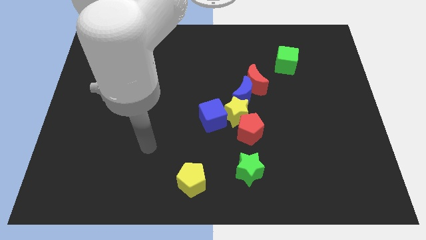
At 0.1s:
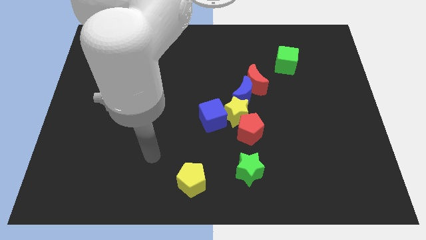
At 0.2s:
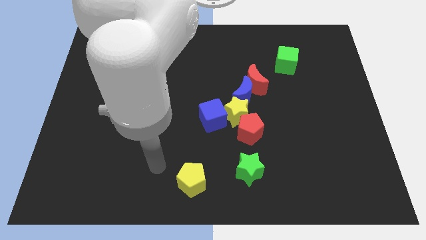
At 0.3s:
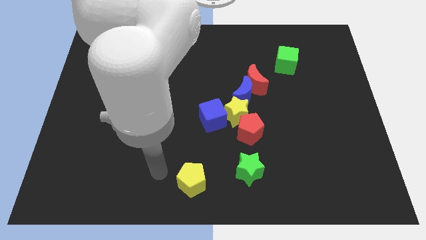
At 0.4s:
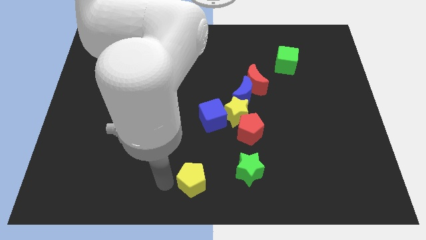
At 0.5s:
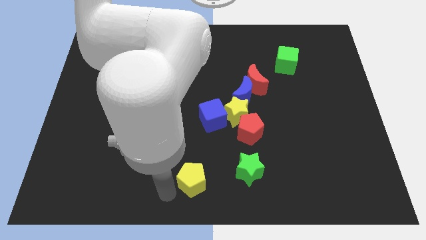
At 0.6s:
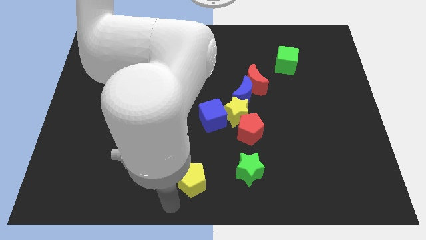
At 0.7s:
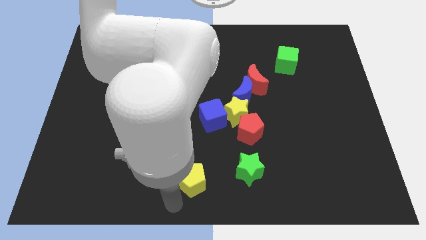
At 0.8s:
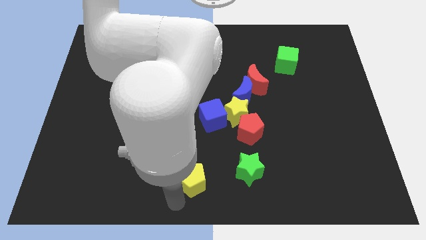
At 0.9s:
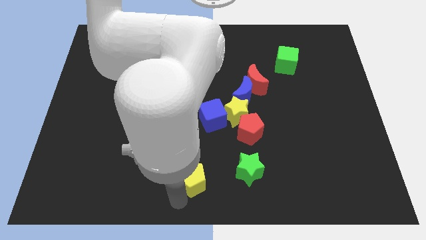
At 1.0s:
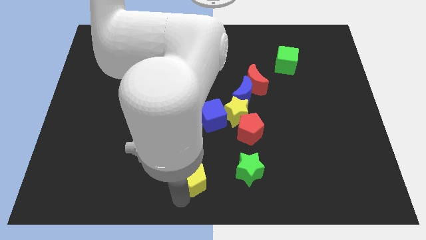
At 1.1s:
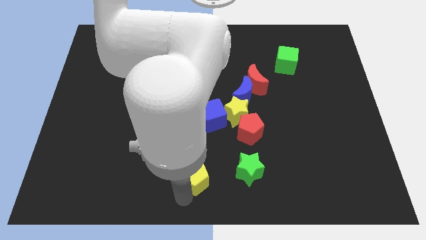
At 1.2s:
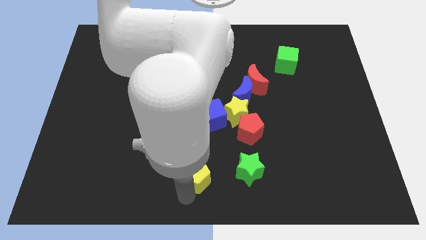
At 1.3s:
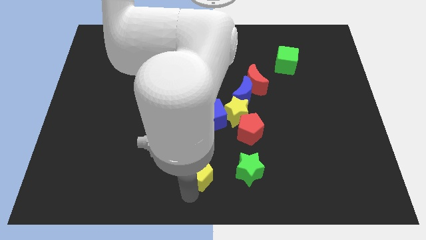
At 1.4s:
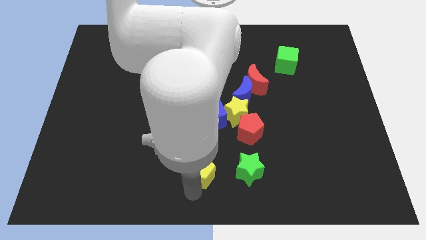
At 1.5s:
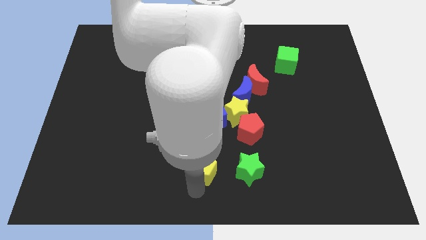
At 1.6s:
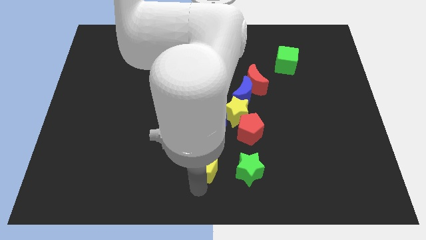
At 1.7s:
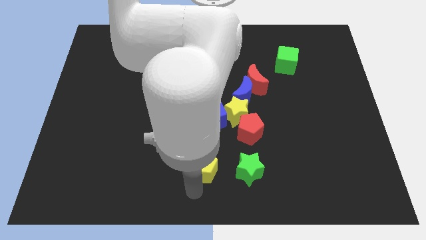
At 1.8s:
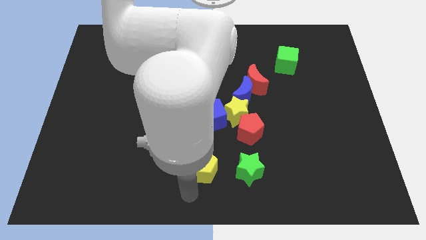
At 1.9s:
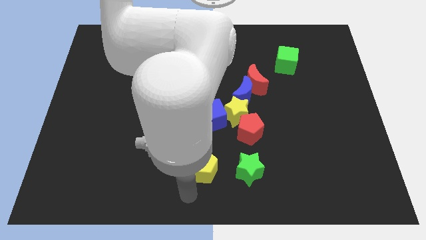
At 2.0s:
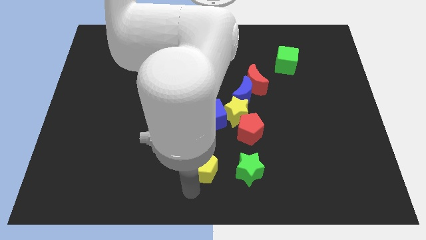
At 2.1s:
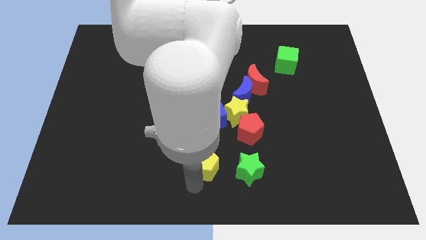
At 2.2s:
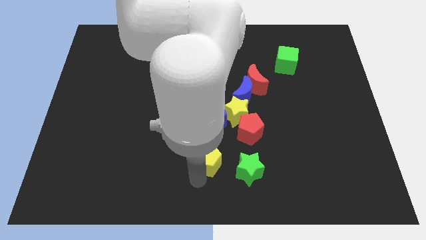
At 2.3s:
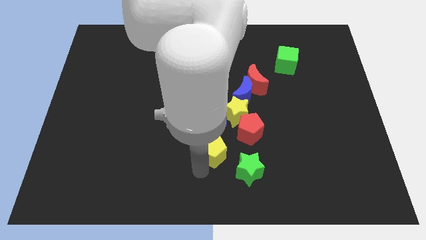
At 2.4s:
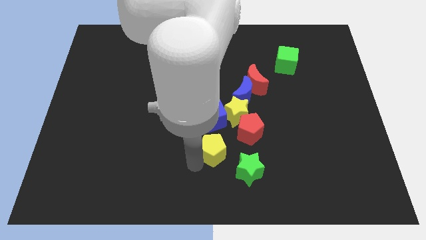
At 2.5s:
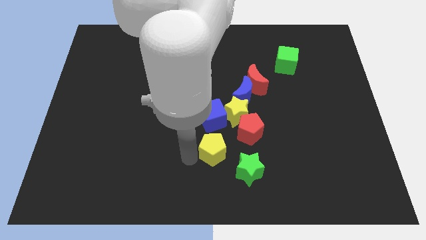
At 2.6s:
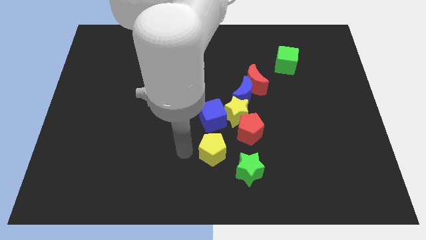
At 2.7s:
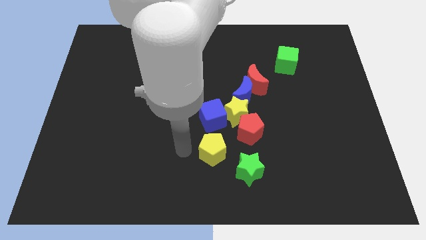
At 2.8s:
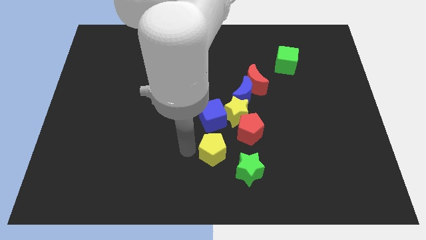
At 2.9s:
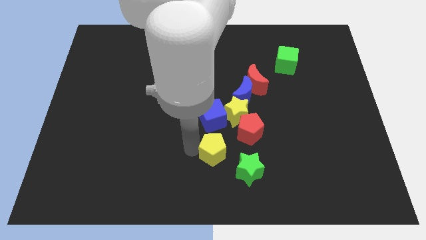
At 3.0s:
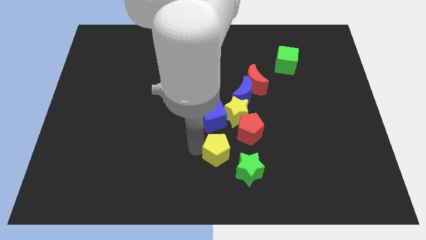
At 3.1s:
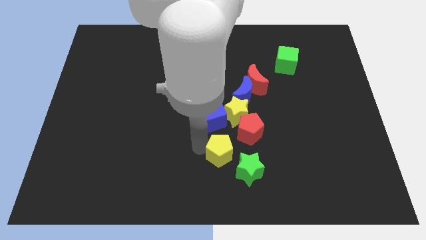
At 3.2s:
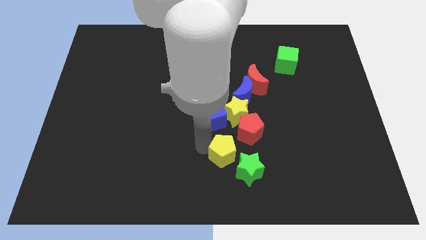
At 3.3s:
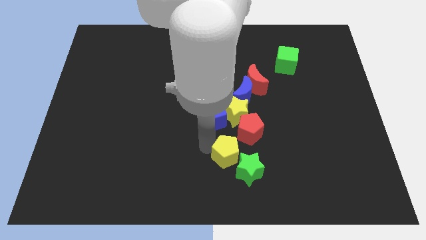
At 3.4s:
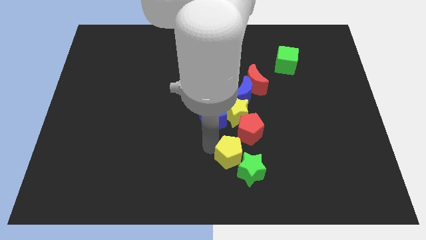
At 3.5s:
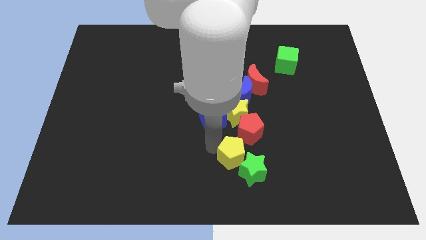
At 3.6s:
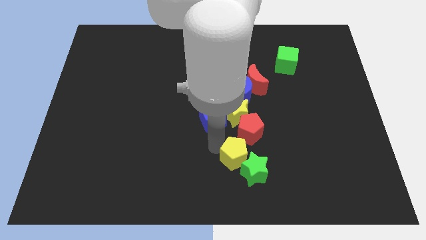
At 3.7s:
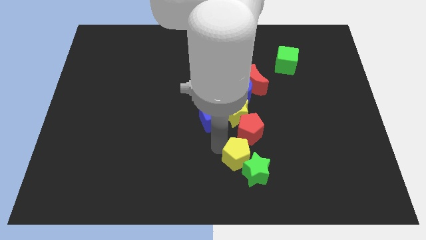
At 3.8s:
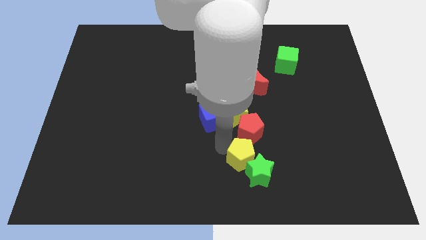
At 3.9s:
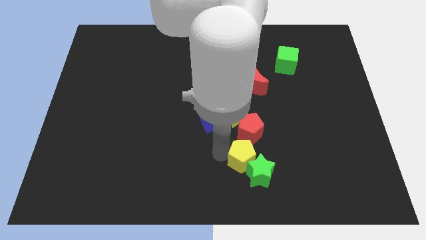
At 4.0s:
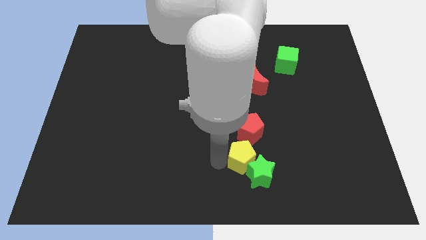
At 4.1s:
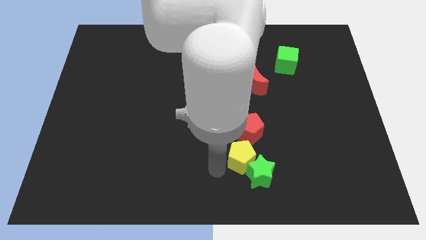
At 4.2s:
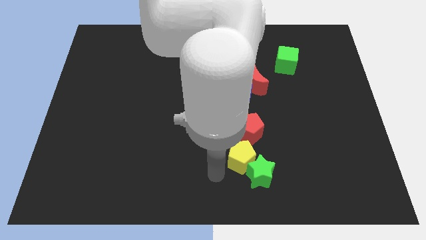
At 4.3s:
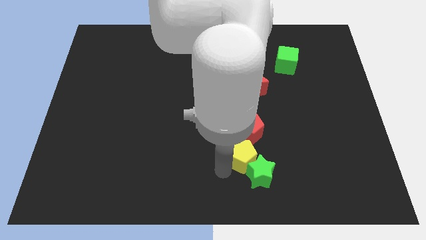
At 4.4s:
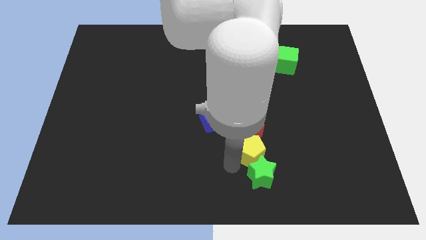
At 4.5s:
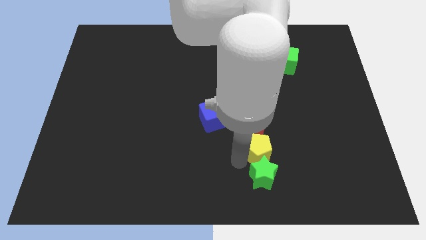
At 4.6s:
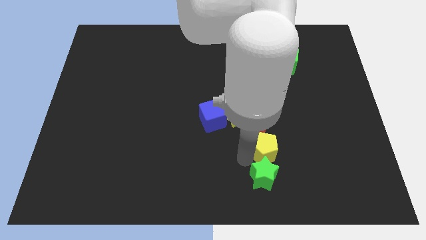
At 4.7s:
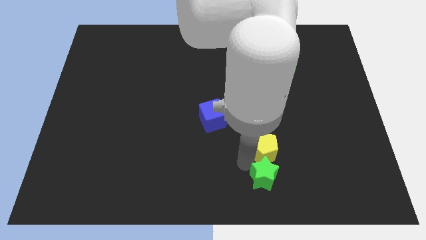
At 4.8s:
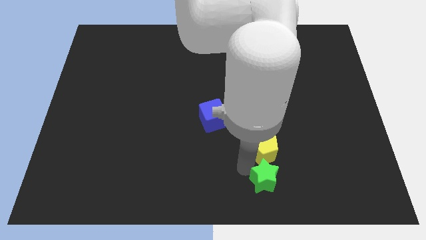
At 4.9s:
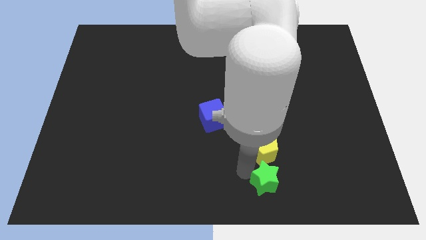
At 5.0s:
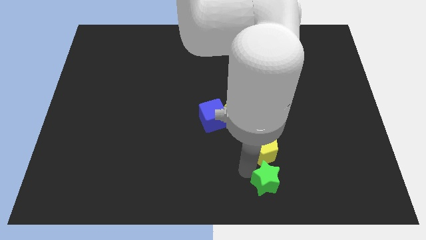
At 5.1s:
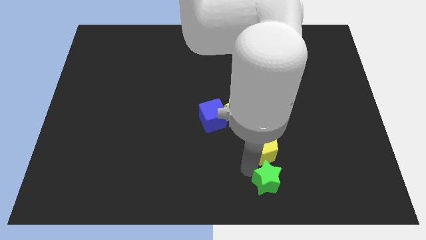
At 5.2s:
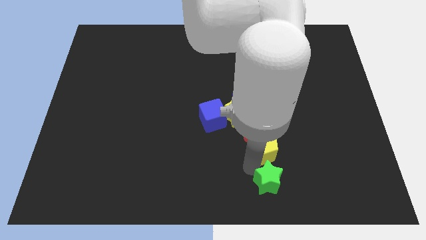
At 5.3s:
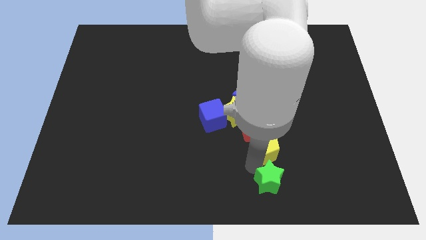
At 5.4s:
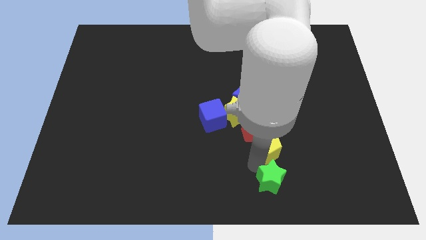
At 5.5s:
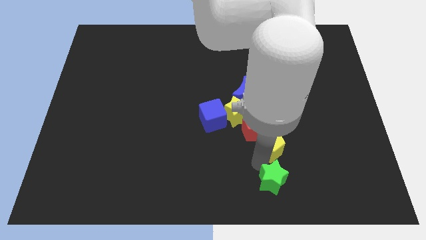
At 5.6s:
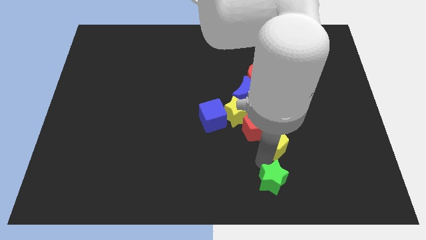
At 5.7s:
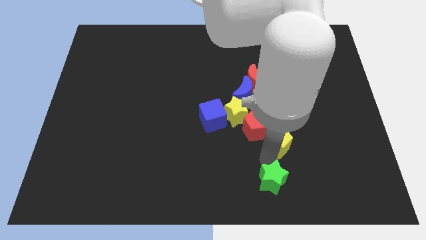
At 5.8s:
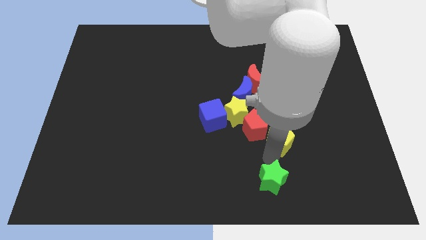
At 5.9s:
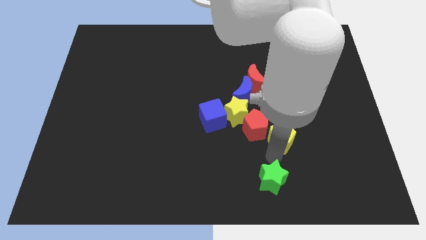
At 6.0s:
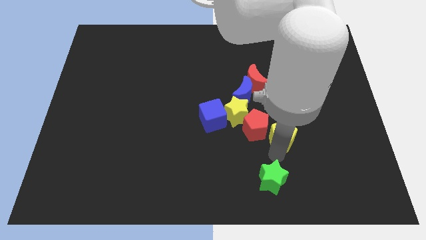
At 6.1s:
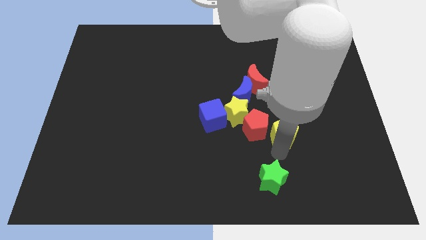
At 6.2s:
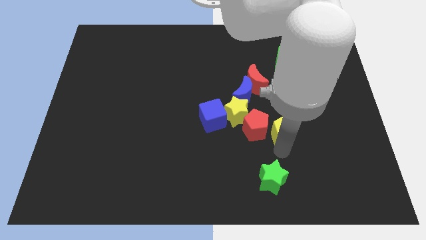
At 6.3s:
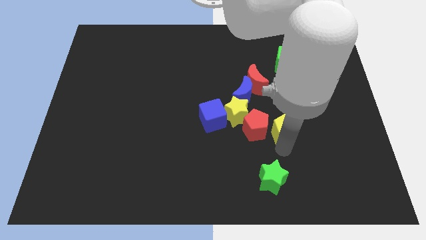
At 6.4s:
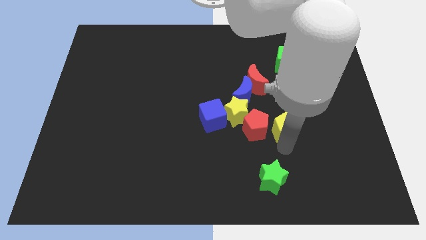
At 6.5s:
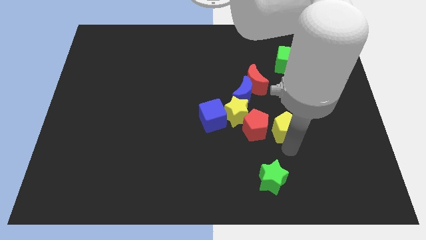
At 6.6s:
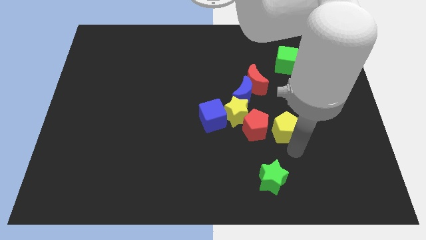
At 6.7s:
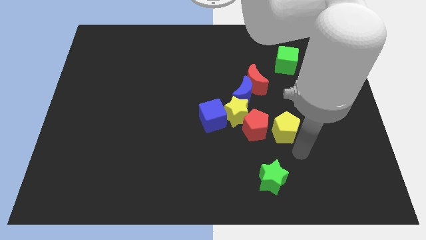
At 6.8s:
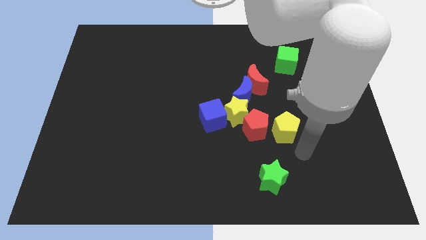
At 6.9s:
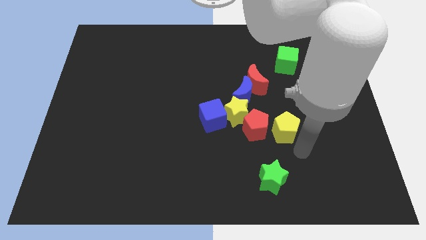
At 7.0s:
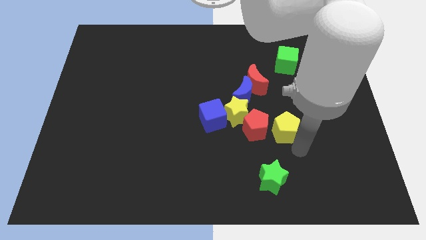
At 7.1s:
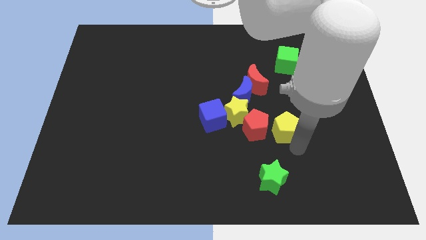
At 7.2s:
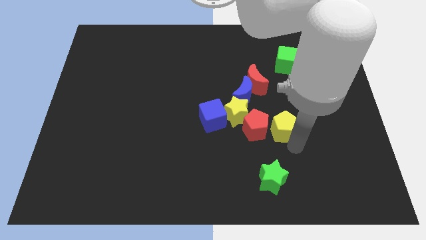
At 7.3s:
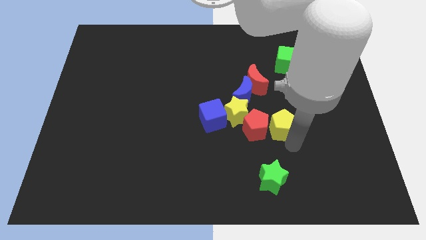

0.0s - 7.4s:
push the yellow pentagon just right of the blue cube
